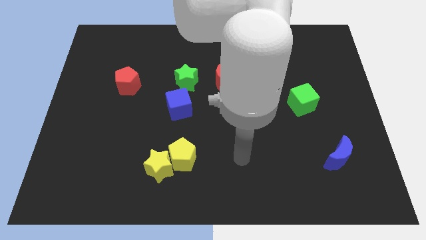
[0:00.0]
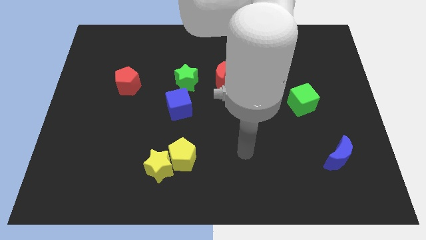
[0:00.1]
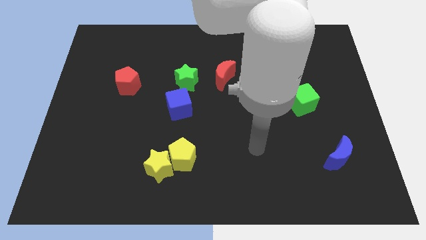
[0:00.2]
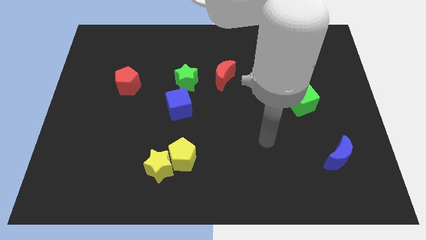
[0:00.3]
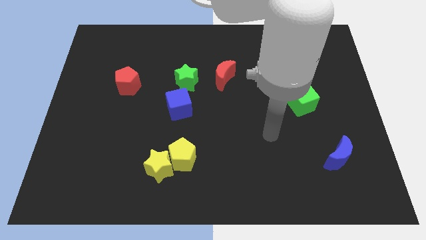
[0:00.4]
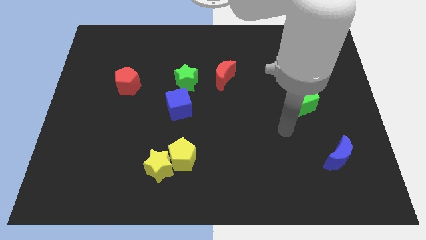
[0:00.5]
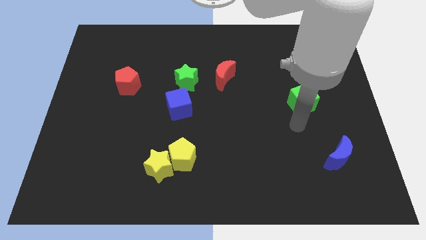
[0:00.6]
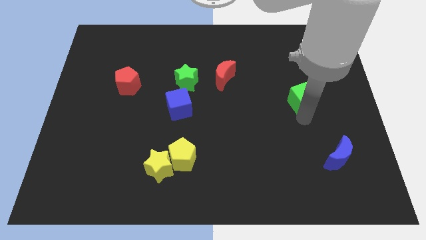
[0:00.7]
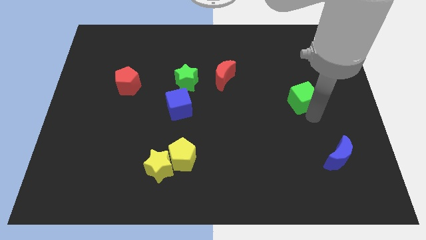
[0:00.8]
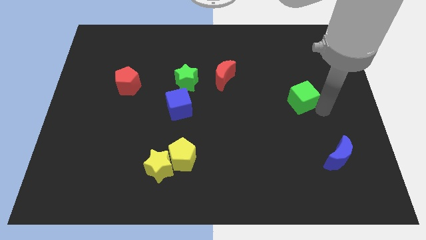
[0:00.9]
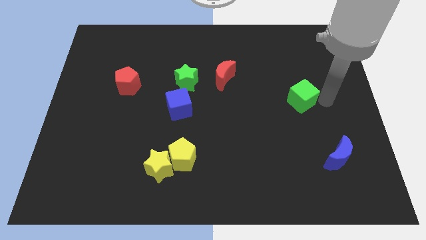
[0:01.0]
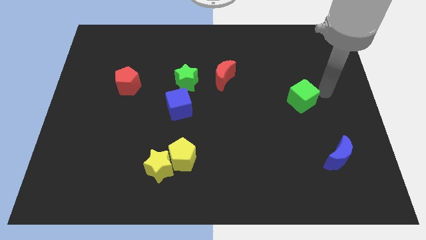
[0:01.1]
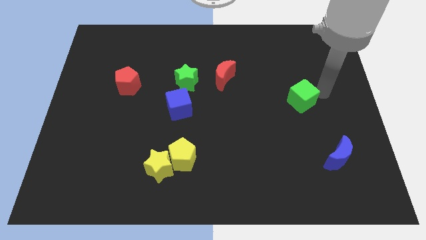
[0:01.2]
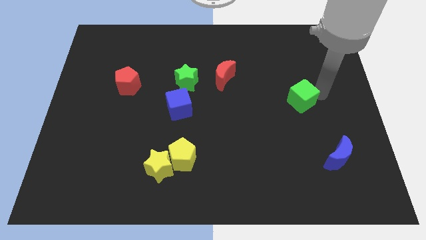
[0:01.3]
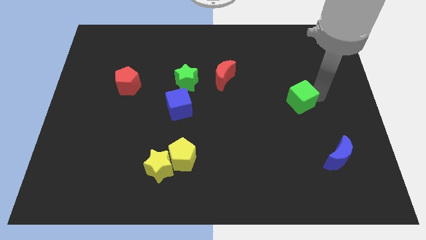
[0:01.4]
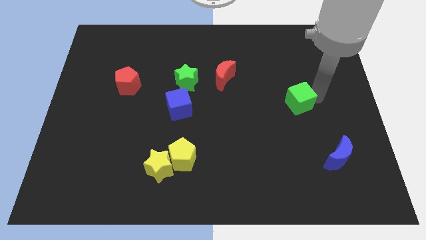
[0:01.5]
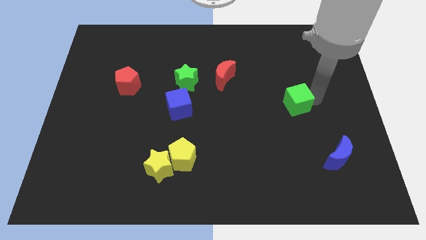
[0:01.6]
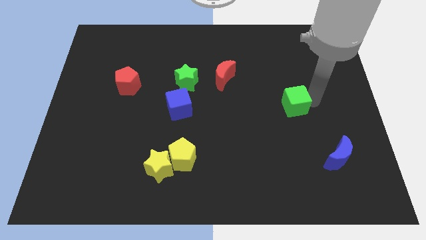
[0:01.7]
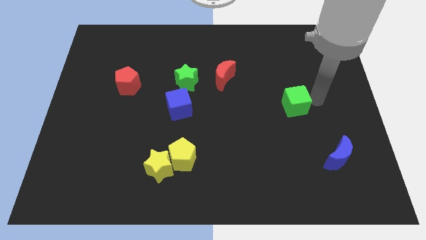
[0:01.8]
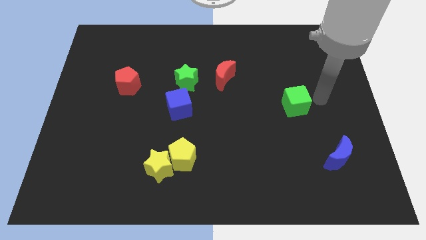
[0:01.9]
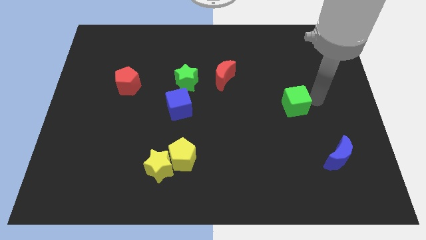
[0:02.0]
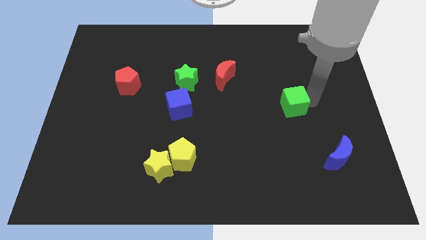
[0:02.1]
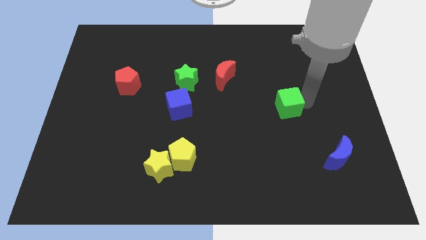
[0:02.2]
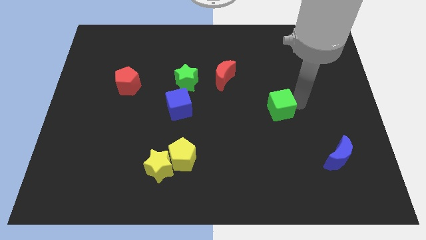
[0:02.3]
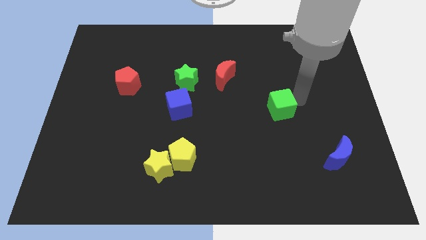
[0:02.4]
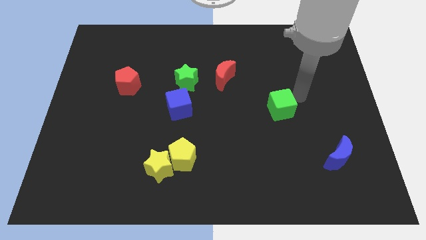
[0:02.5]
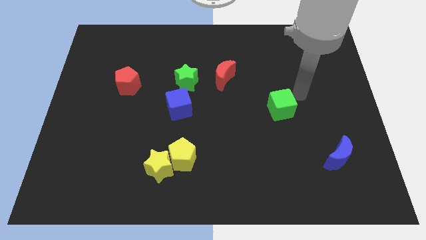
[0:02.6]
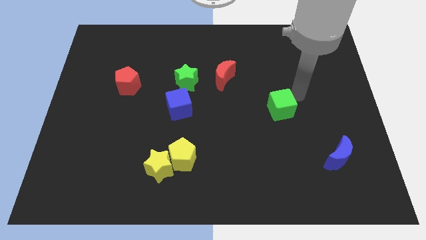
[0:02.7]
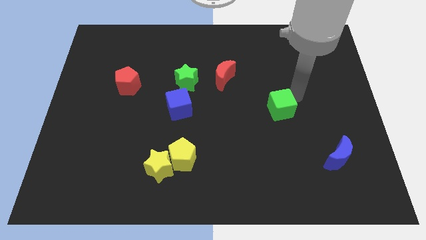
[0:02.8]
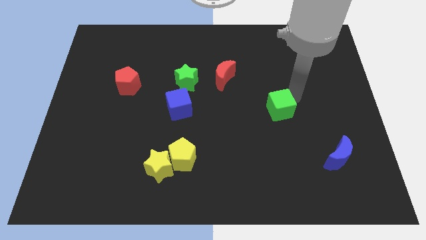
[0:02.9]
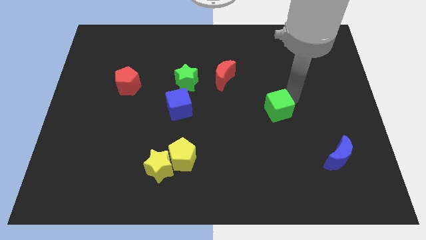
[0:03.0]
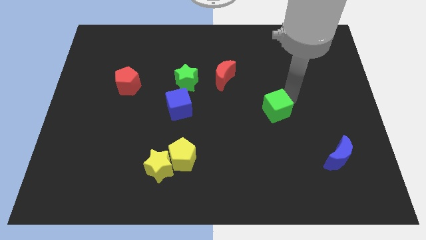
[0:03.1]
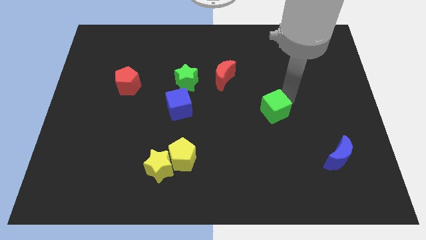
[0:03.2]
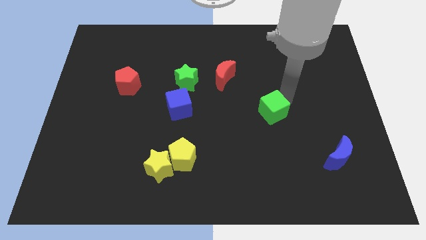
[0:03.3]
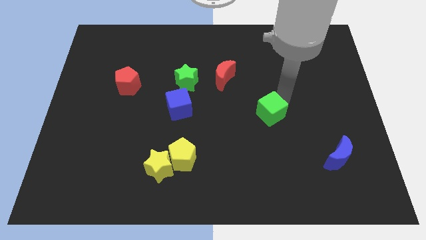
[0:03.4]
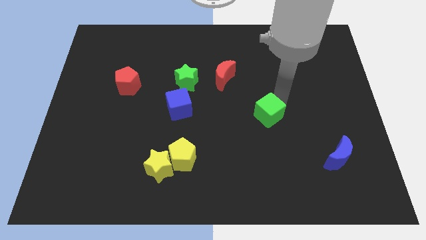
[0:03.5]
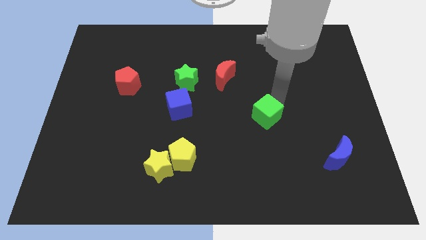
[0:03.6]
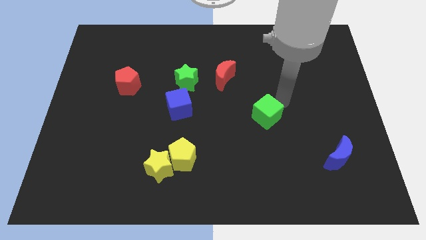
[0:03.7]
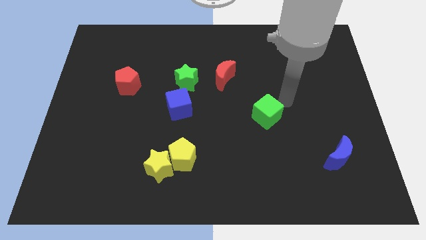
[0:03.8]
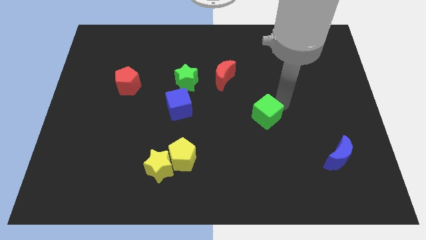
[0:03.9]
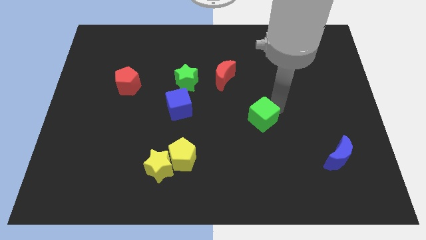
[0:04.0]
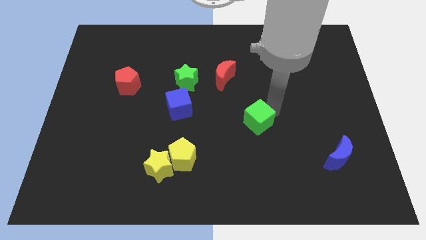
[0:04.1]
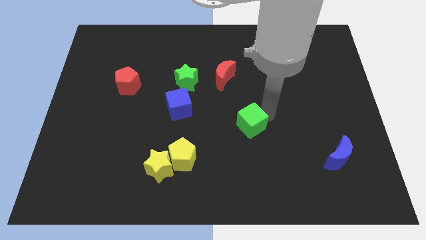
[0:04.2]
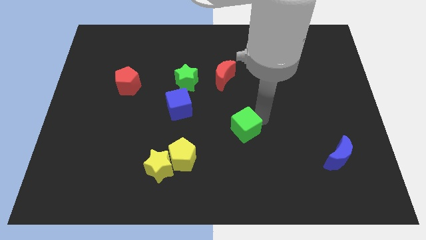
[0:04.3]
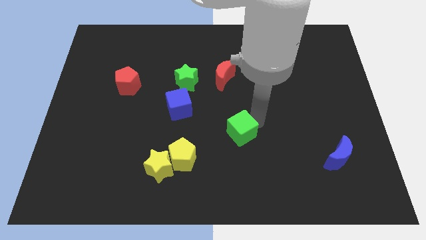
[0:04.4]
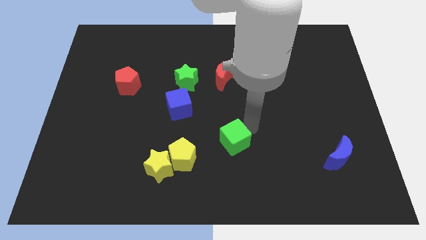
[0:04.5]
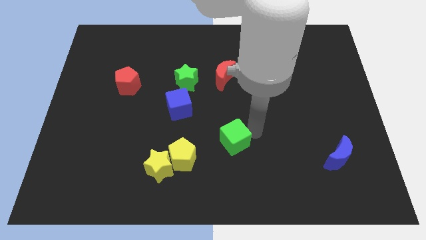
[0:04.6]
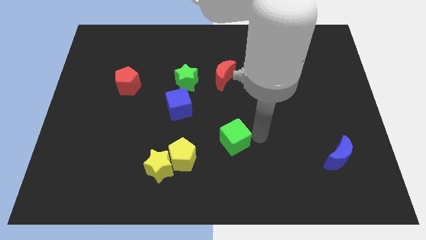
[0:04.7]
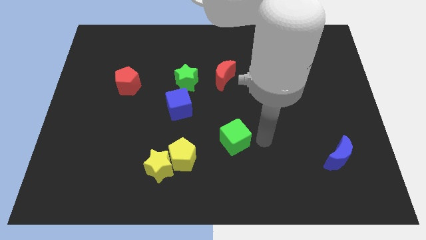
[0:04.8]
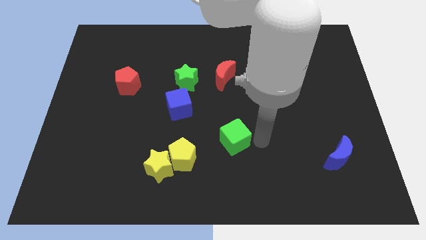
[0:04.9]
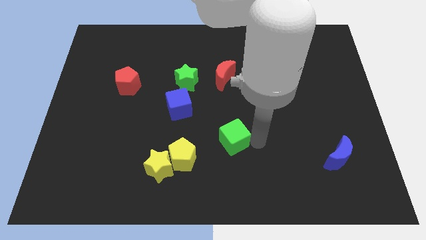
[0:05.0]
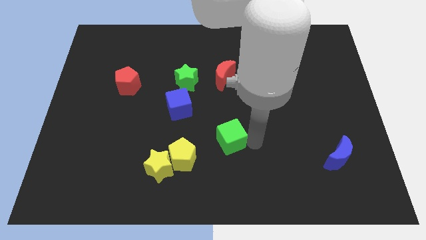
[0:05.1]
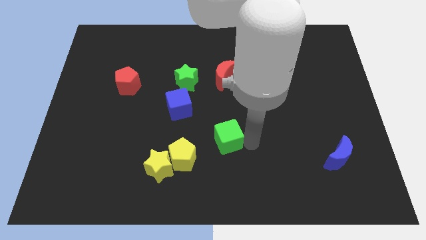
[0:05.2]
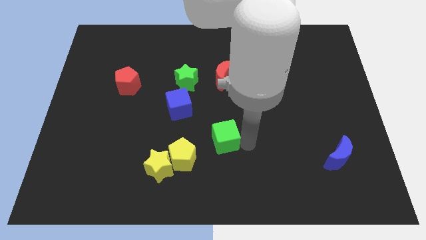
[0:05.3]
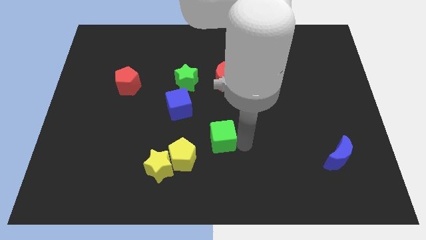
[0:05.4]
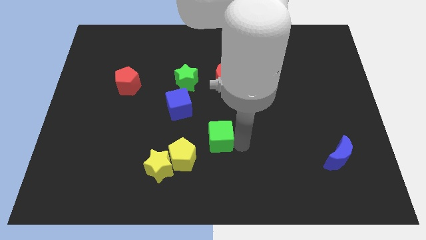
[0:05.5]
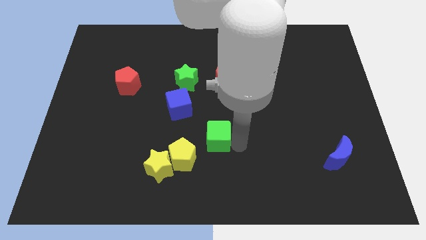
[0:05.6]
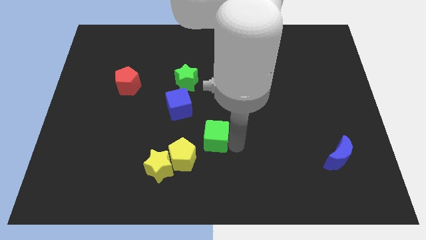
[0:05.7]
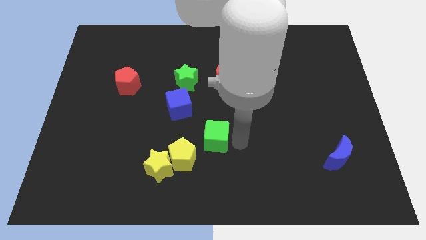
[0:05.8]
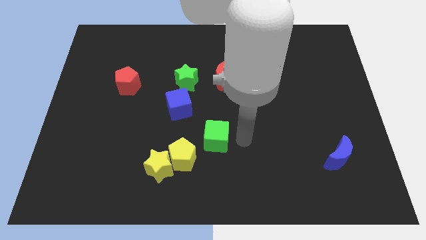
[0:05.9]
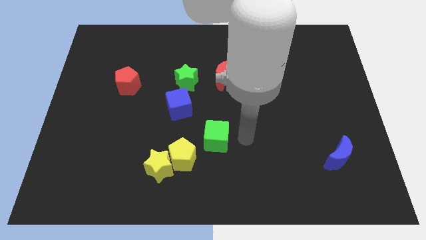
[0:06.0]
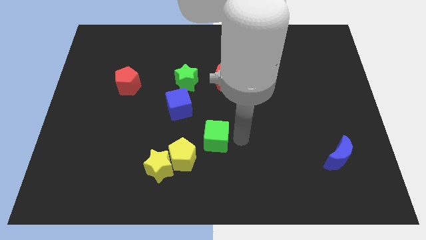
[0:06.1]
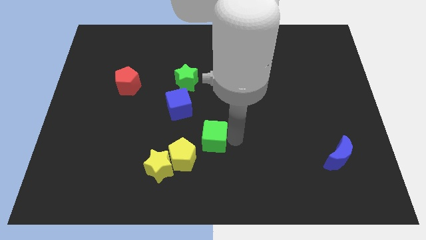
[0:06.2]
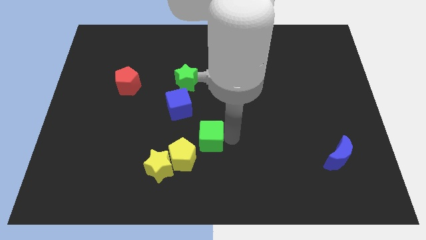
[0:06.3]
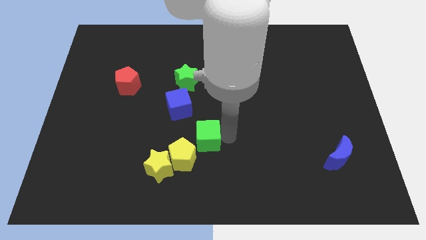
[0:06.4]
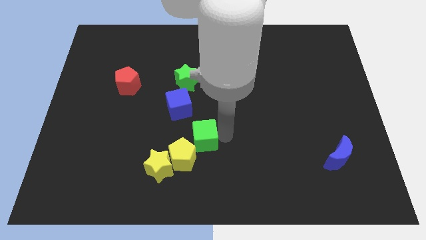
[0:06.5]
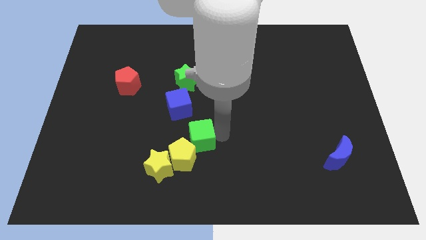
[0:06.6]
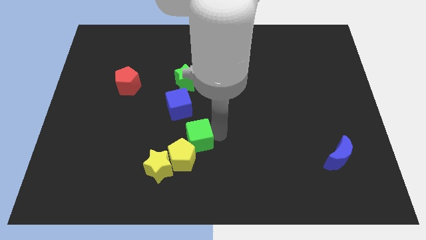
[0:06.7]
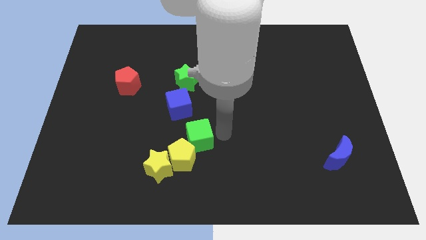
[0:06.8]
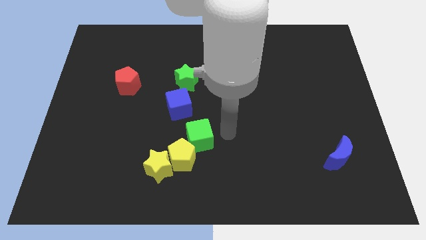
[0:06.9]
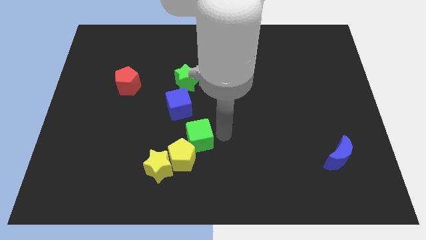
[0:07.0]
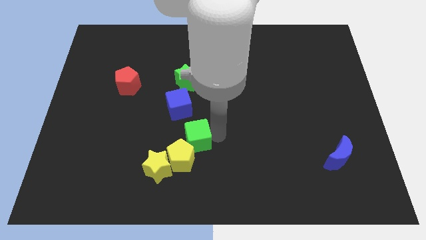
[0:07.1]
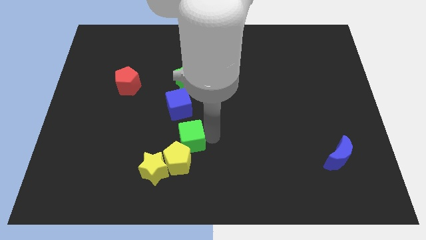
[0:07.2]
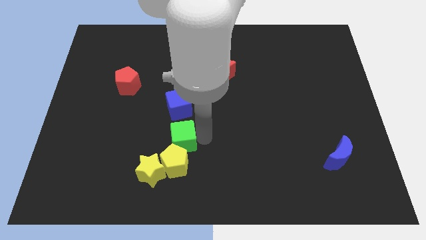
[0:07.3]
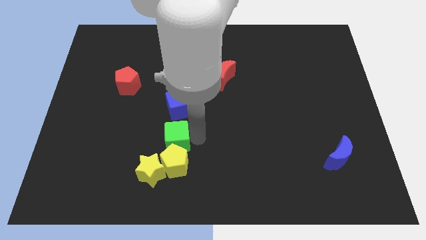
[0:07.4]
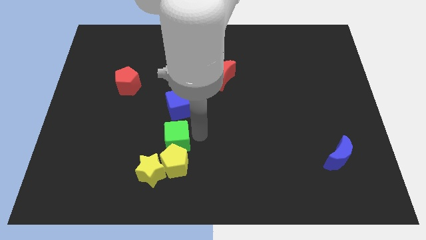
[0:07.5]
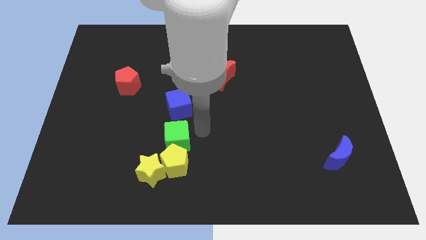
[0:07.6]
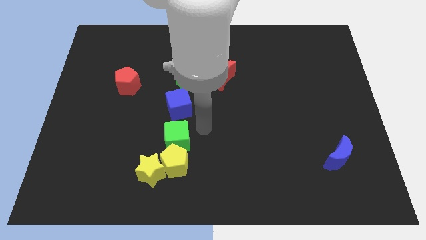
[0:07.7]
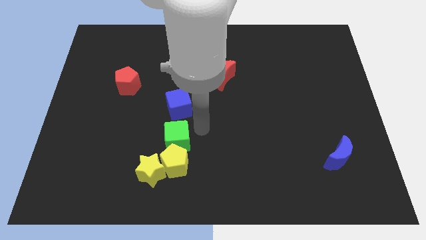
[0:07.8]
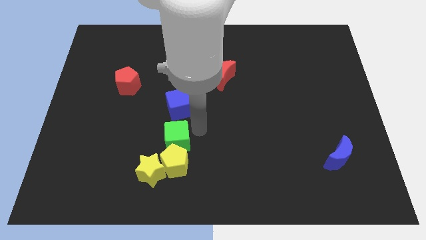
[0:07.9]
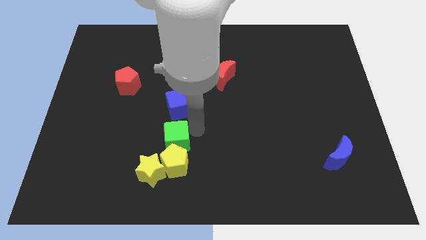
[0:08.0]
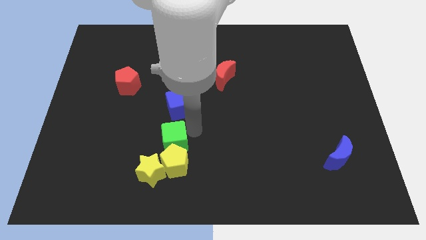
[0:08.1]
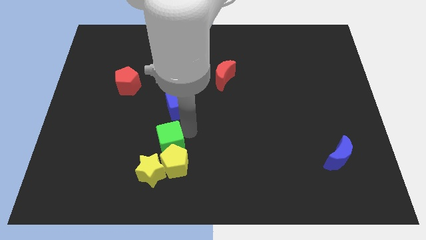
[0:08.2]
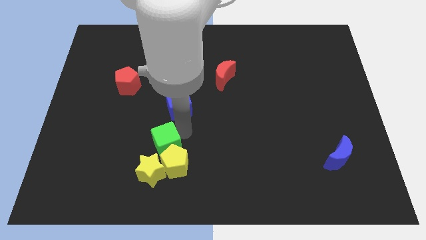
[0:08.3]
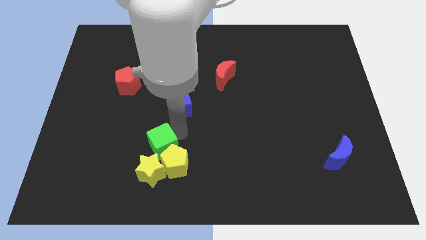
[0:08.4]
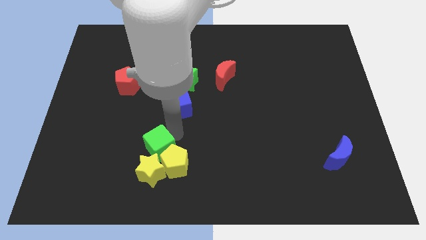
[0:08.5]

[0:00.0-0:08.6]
slide the green cube left of the yellow pentagon
